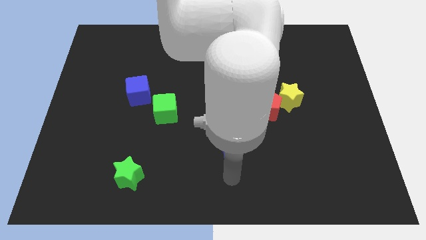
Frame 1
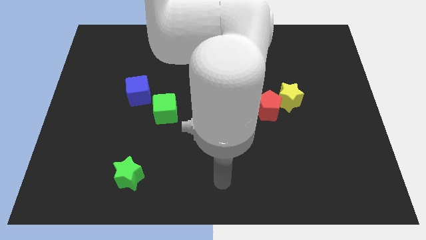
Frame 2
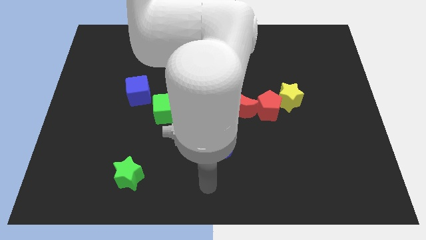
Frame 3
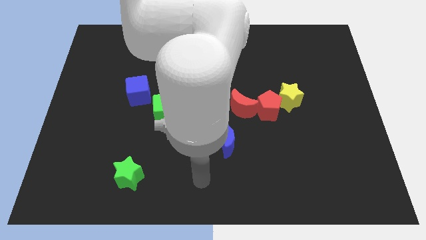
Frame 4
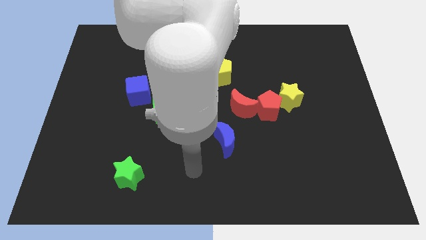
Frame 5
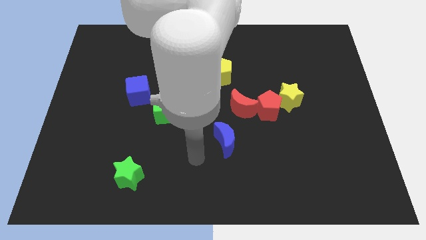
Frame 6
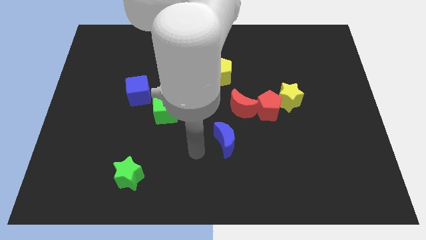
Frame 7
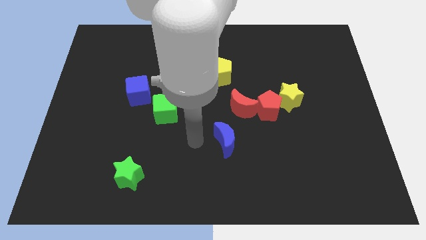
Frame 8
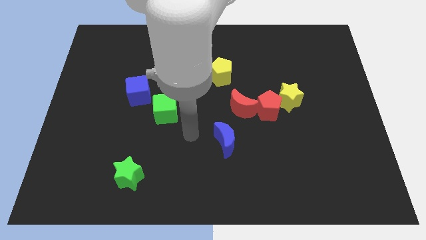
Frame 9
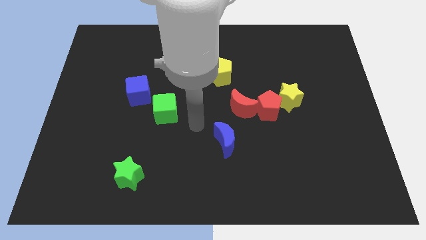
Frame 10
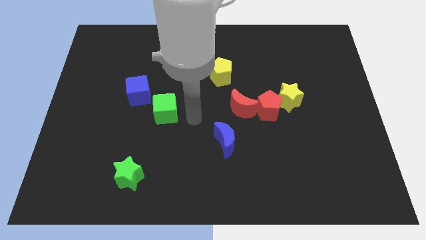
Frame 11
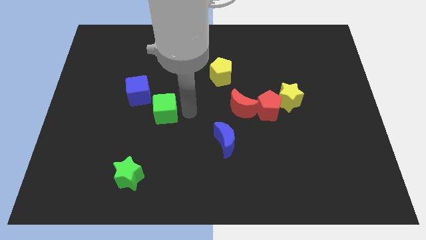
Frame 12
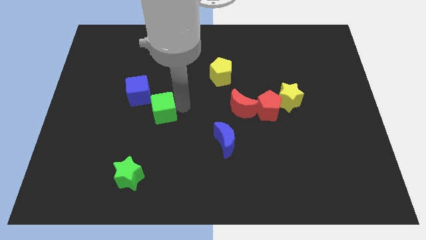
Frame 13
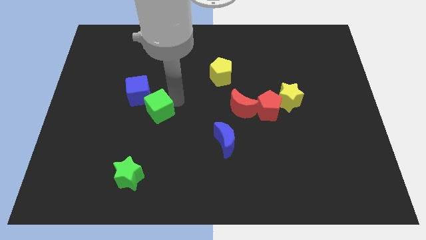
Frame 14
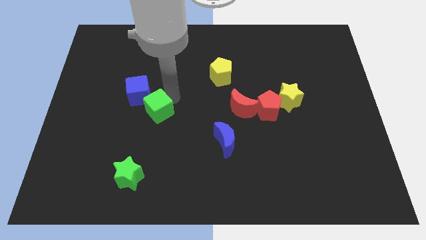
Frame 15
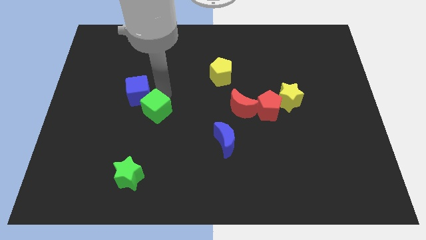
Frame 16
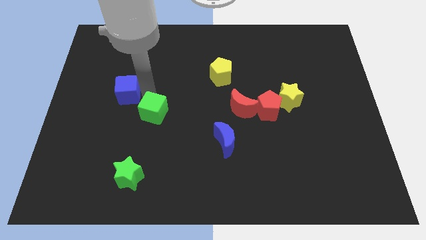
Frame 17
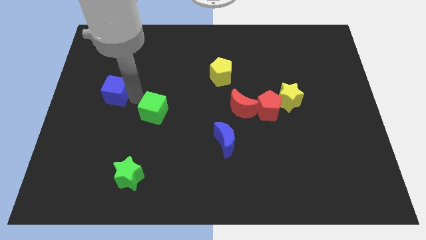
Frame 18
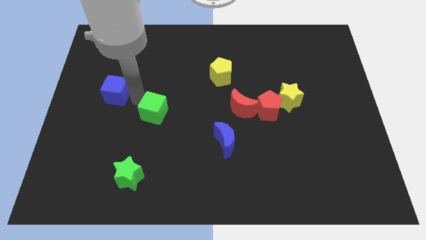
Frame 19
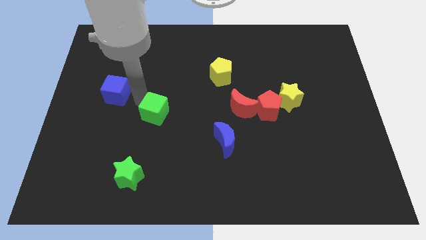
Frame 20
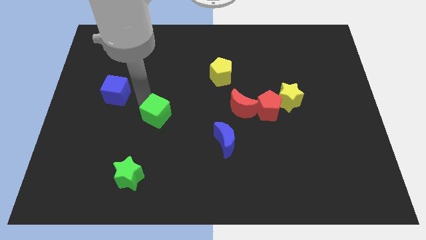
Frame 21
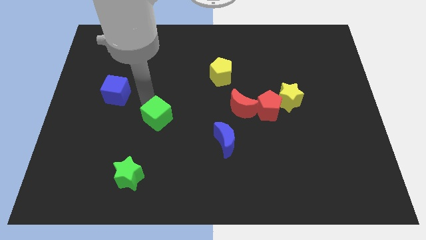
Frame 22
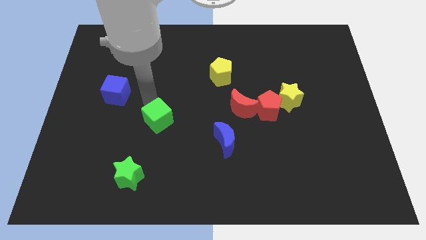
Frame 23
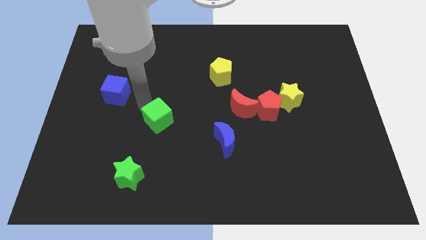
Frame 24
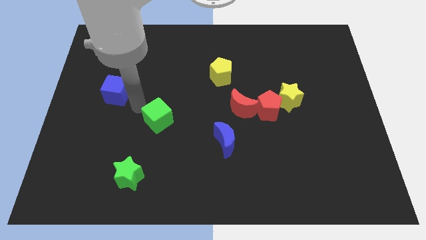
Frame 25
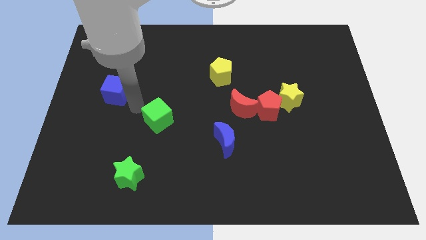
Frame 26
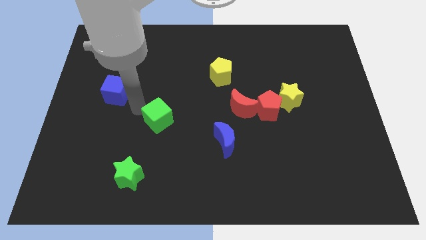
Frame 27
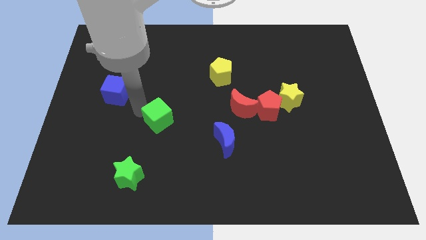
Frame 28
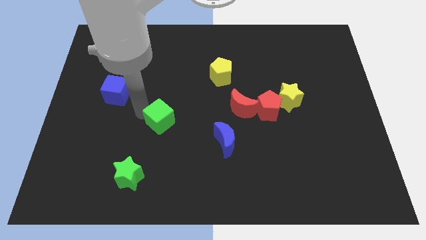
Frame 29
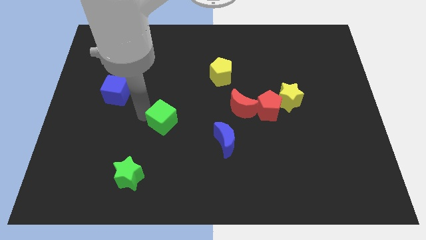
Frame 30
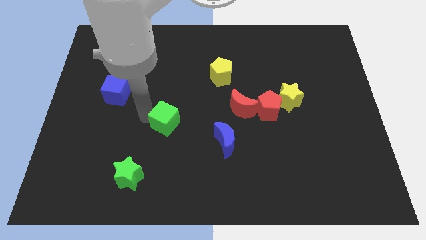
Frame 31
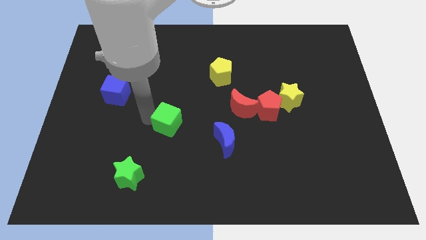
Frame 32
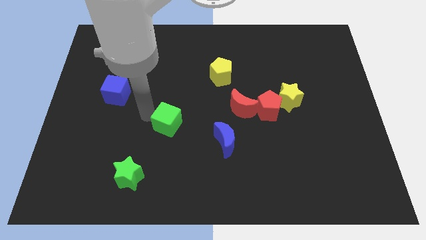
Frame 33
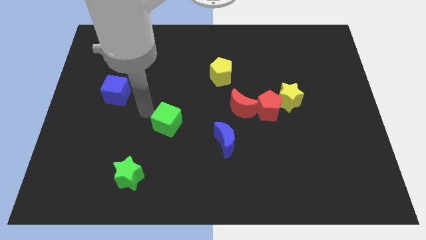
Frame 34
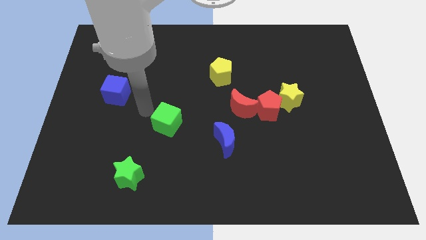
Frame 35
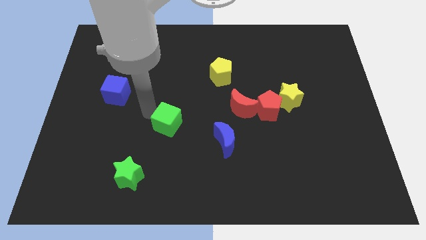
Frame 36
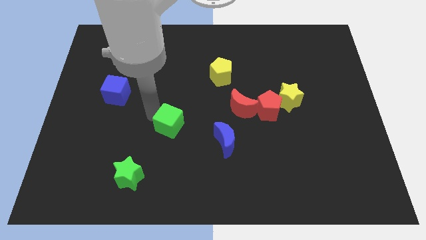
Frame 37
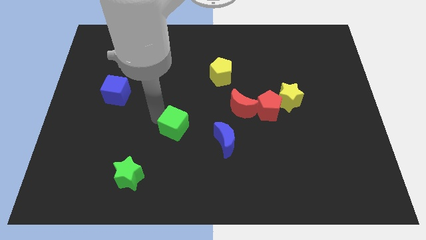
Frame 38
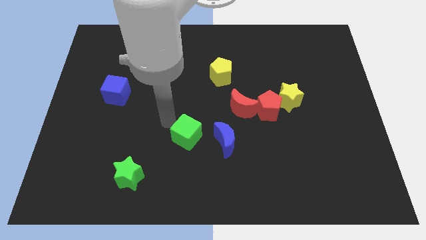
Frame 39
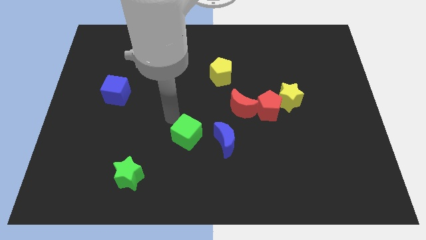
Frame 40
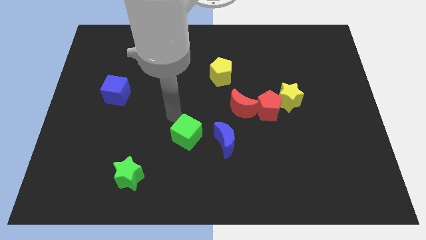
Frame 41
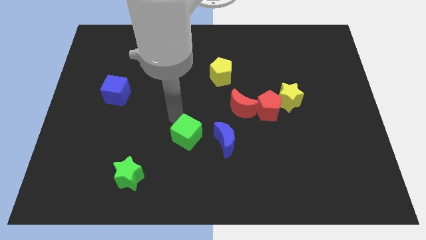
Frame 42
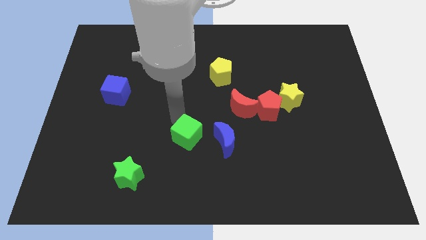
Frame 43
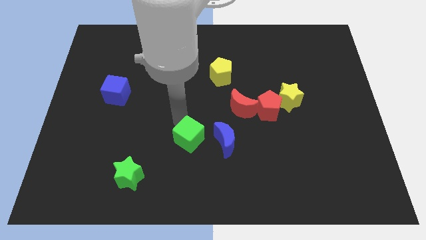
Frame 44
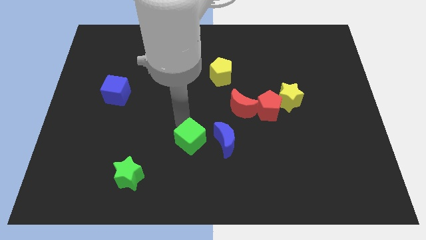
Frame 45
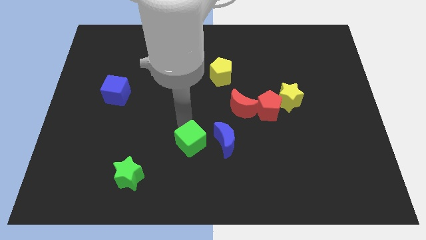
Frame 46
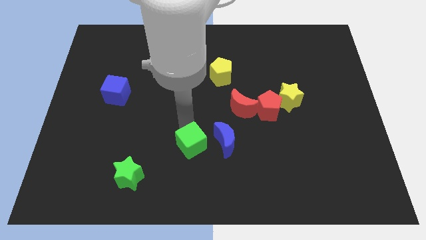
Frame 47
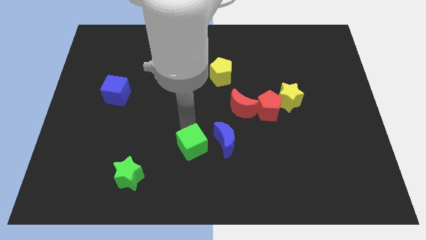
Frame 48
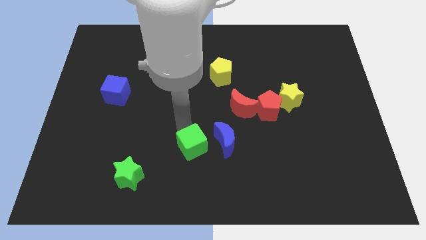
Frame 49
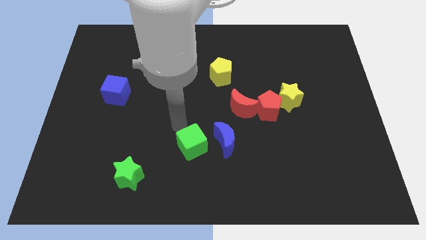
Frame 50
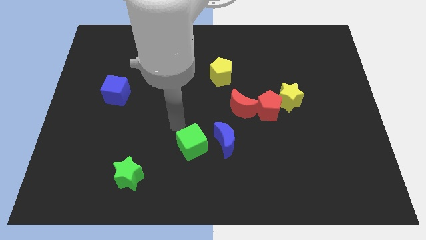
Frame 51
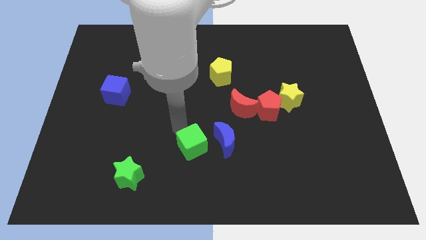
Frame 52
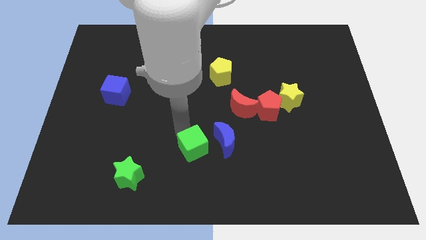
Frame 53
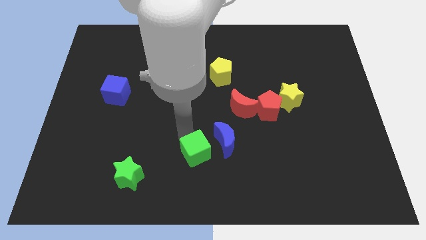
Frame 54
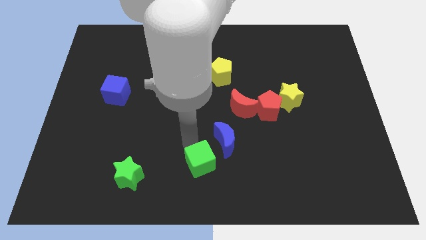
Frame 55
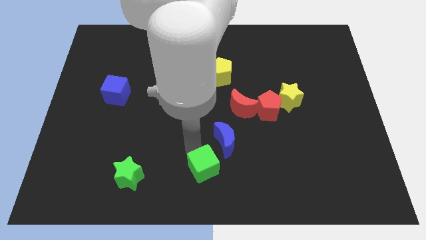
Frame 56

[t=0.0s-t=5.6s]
move the green cube below the blue moon

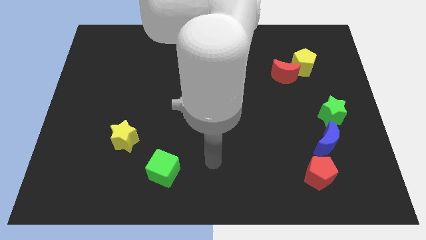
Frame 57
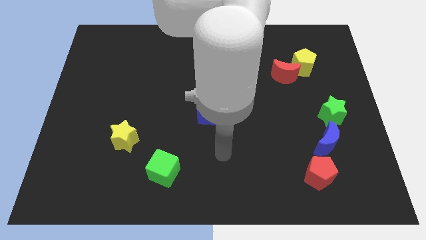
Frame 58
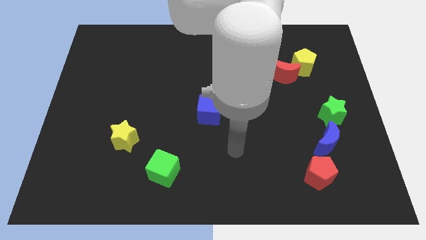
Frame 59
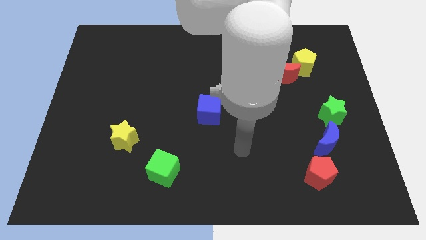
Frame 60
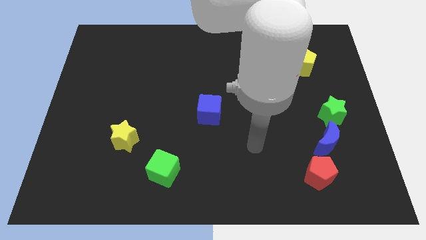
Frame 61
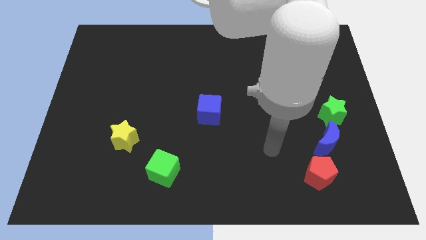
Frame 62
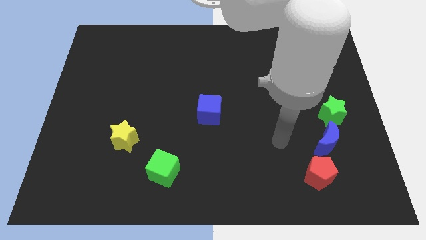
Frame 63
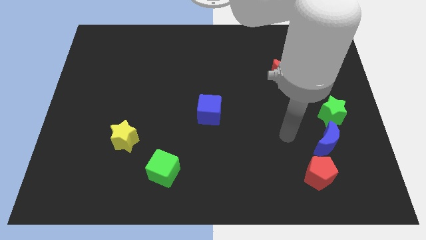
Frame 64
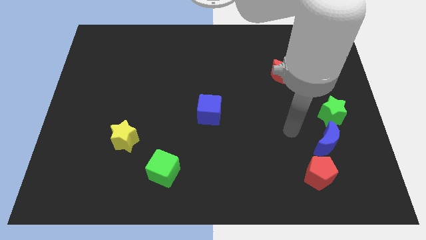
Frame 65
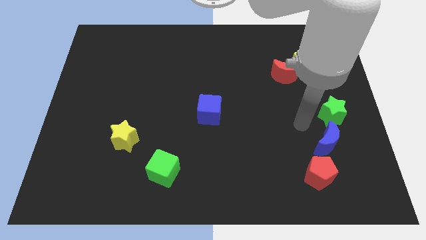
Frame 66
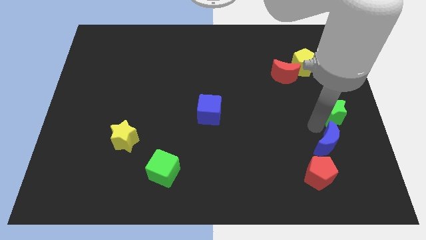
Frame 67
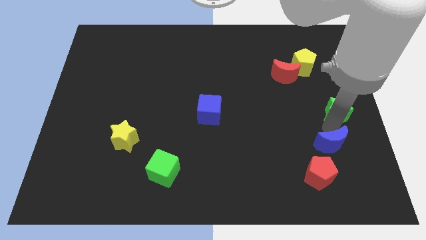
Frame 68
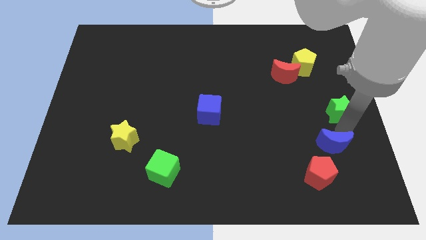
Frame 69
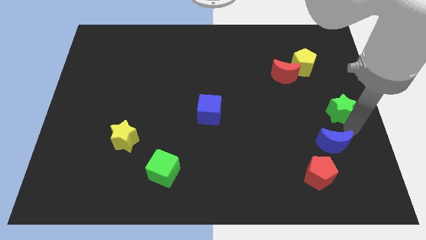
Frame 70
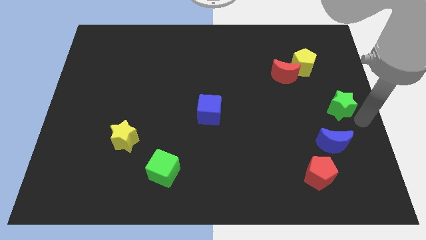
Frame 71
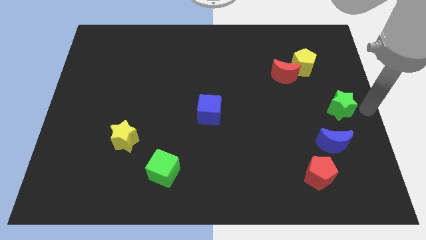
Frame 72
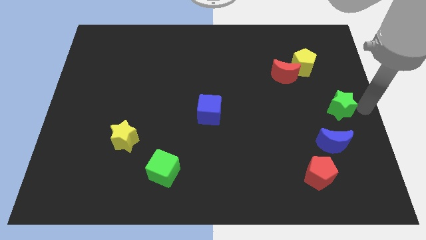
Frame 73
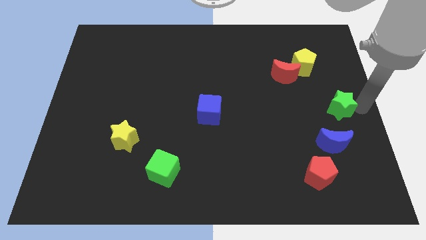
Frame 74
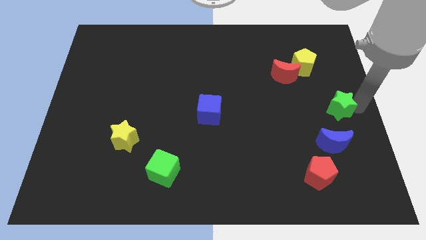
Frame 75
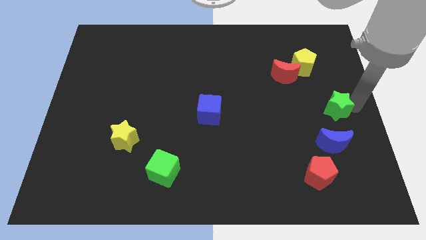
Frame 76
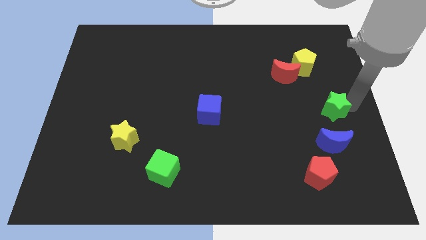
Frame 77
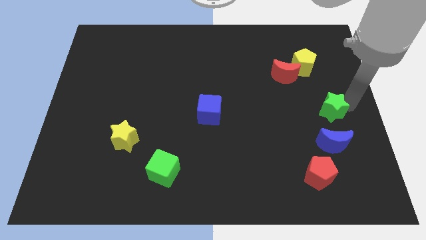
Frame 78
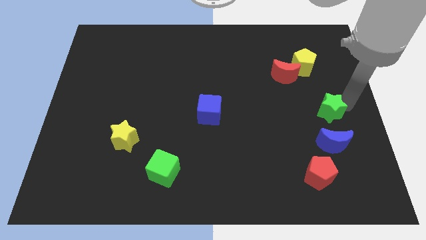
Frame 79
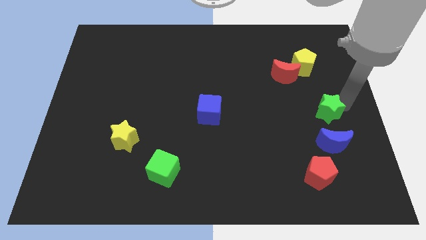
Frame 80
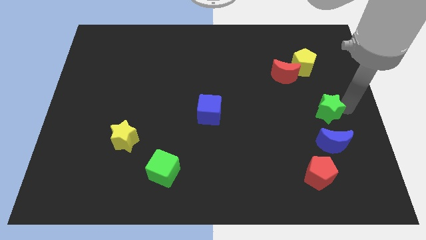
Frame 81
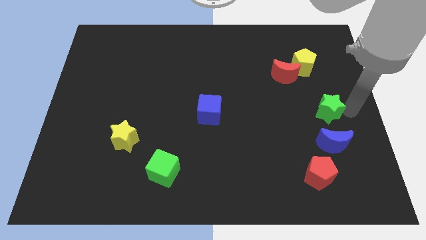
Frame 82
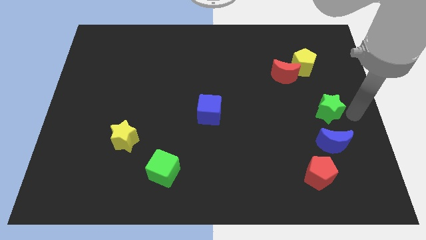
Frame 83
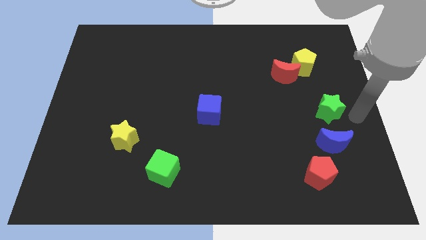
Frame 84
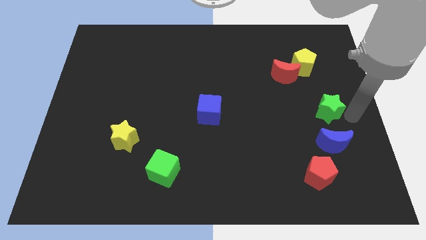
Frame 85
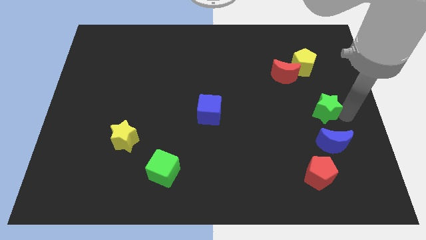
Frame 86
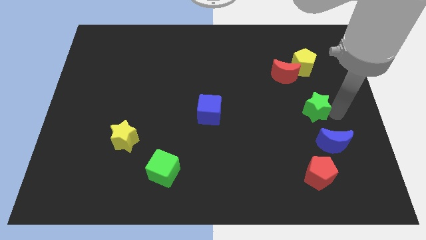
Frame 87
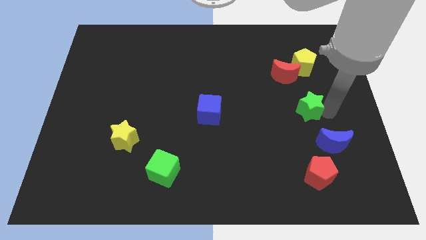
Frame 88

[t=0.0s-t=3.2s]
slide the green star to the bottom side of the red moon
